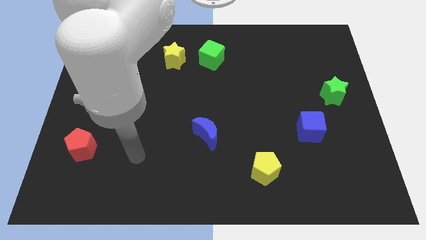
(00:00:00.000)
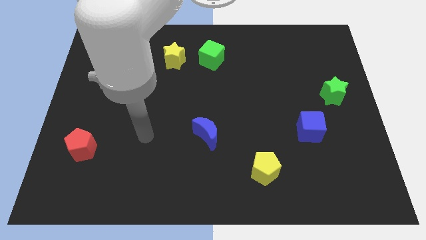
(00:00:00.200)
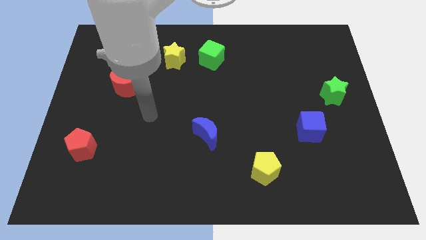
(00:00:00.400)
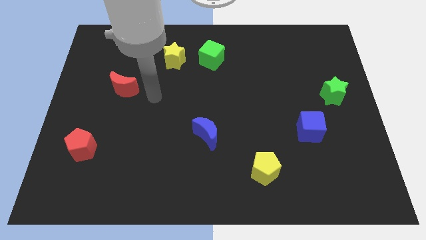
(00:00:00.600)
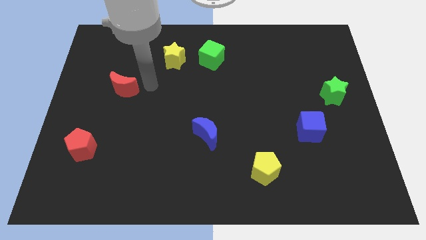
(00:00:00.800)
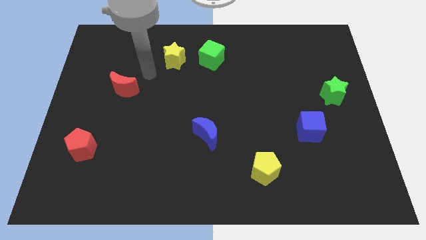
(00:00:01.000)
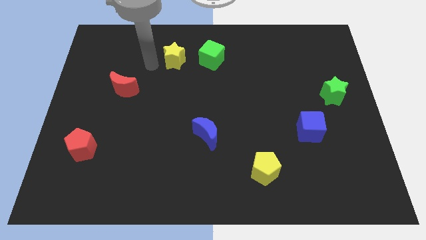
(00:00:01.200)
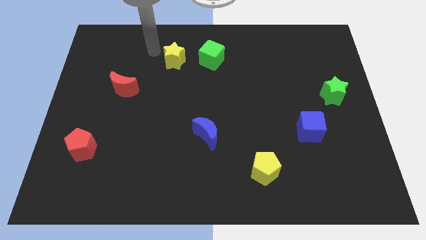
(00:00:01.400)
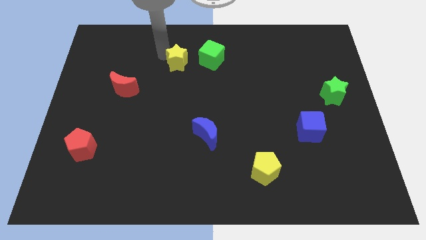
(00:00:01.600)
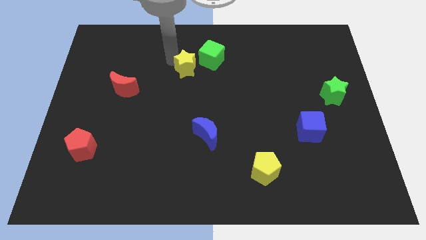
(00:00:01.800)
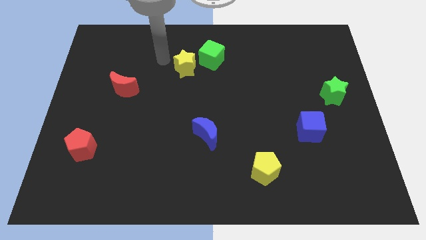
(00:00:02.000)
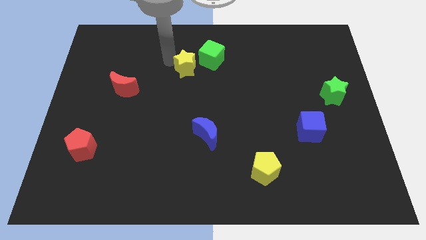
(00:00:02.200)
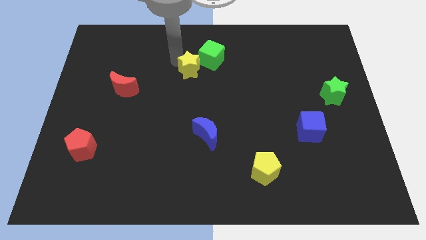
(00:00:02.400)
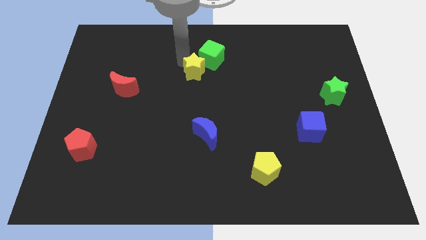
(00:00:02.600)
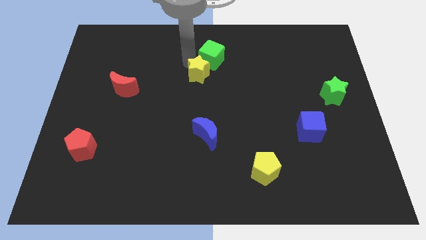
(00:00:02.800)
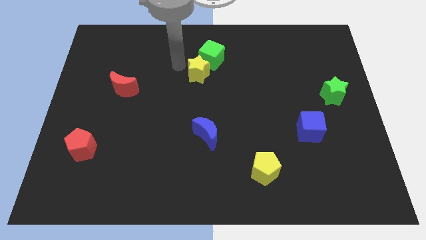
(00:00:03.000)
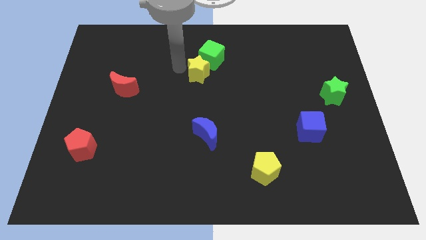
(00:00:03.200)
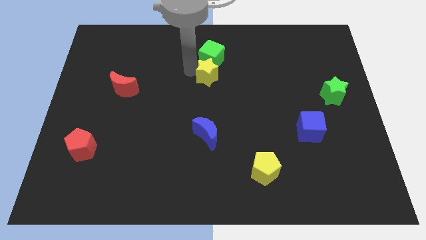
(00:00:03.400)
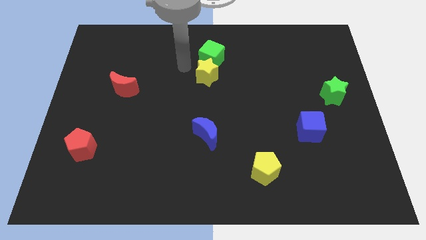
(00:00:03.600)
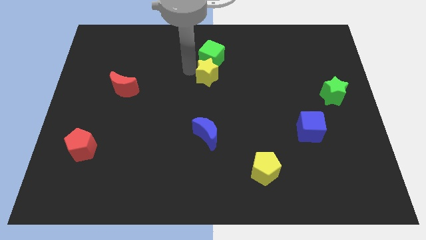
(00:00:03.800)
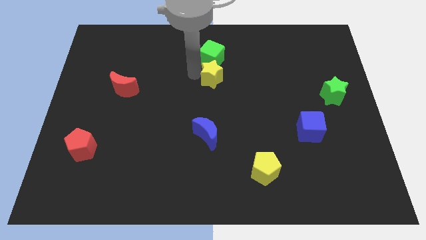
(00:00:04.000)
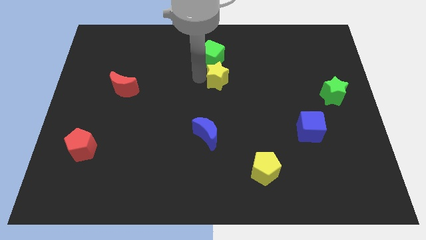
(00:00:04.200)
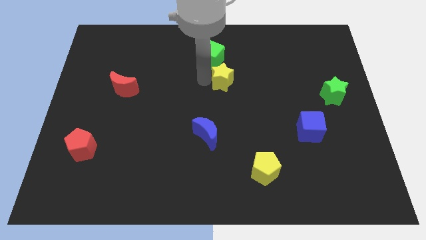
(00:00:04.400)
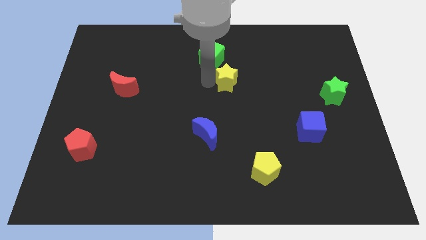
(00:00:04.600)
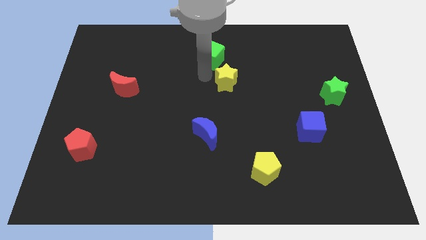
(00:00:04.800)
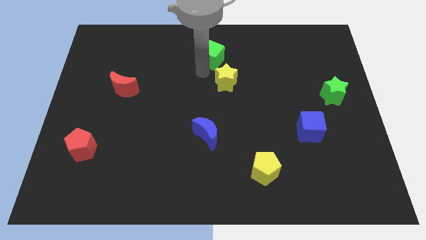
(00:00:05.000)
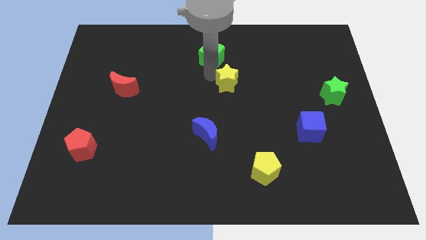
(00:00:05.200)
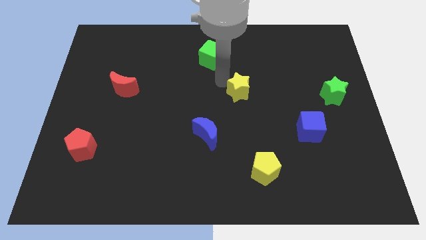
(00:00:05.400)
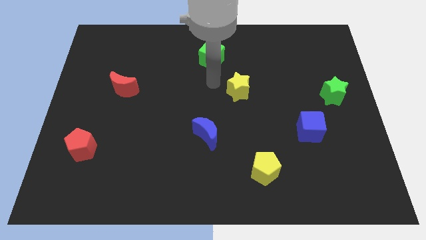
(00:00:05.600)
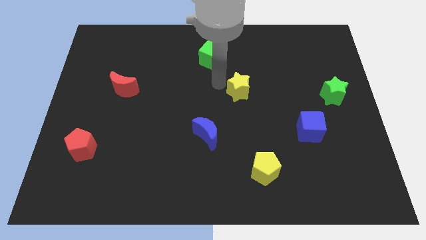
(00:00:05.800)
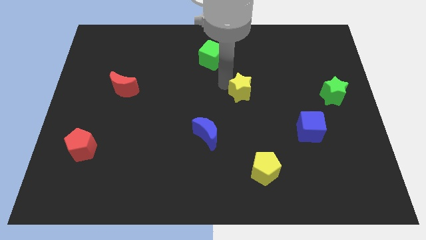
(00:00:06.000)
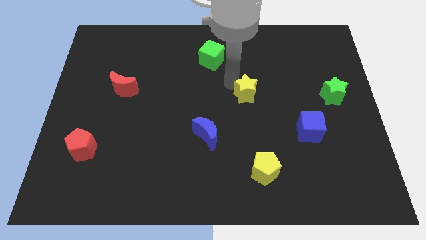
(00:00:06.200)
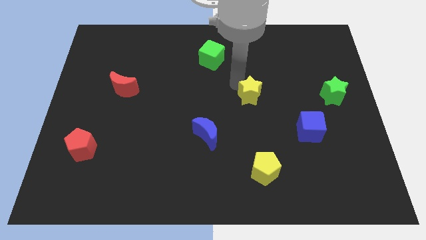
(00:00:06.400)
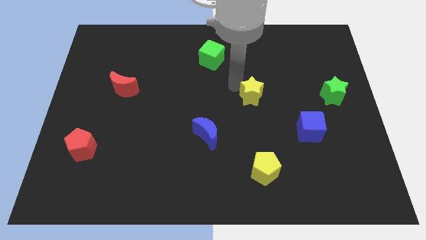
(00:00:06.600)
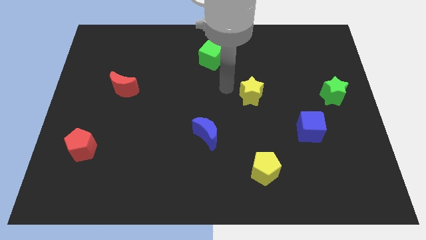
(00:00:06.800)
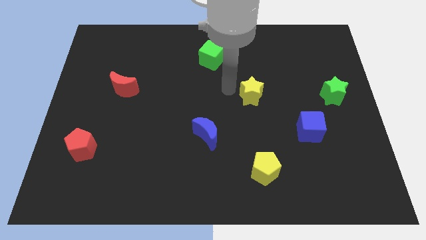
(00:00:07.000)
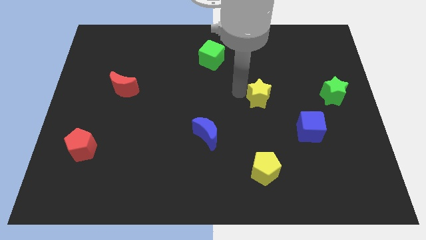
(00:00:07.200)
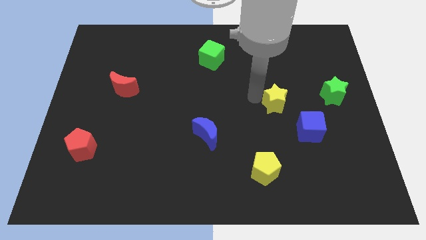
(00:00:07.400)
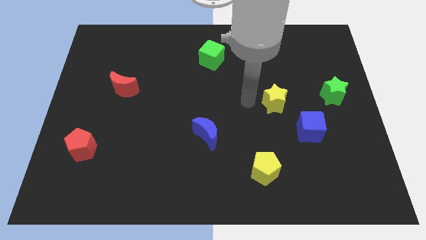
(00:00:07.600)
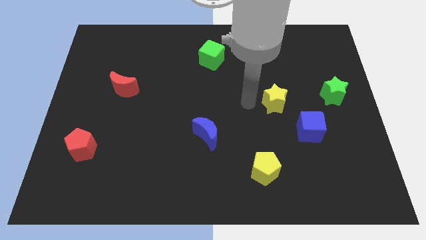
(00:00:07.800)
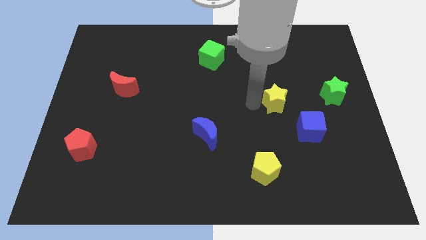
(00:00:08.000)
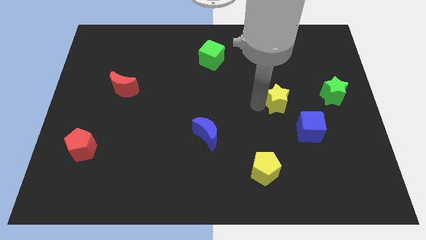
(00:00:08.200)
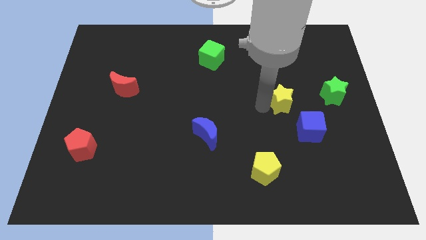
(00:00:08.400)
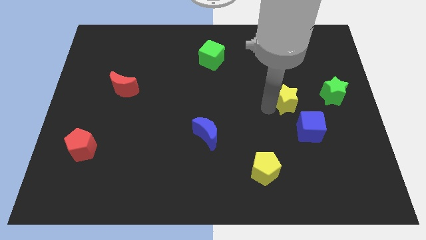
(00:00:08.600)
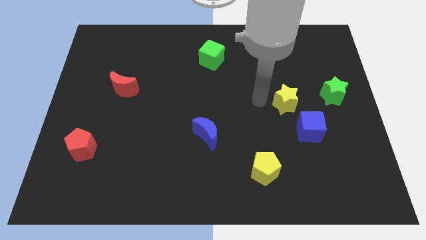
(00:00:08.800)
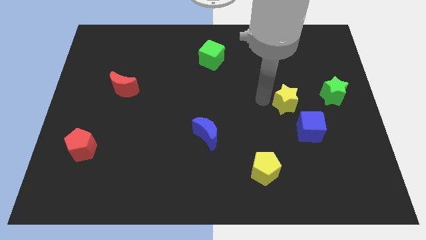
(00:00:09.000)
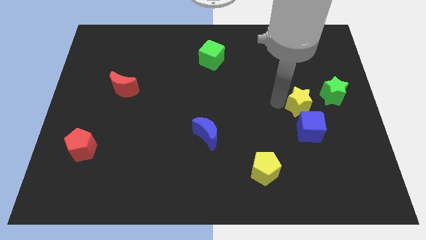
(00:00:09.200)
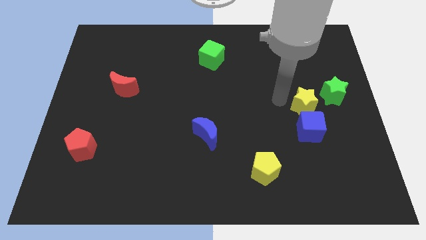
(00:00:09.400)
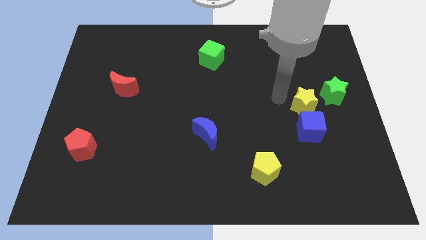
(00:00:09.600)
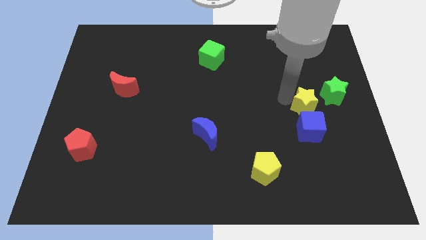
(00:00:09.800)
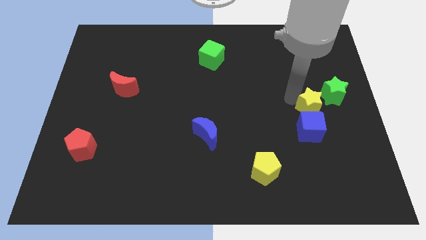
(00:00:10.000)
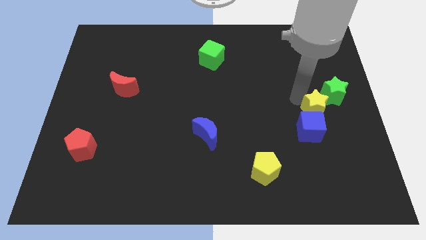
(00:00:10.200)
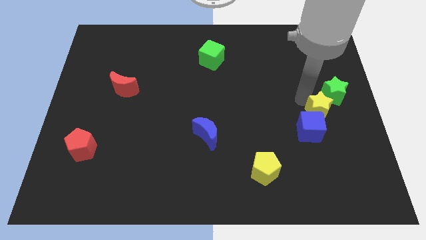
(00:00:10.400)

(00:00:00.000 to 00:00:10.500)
slide the yellow star to the bottom of the green star

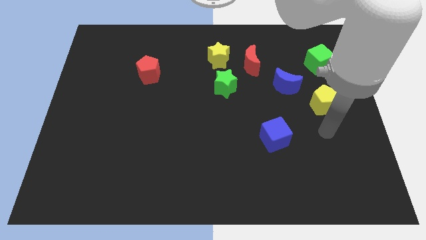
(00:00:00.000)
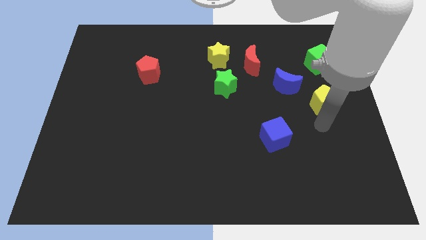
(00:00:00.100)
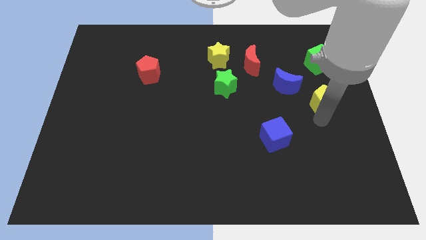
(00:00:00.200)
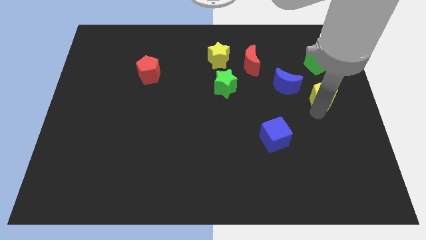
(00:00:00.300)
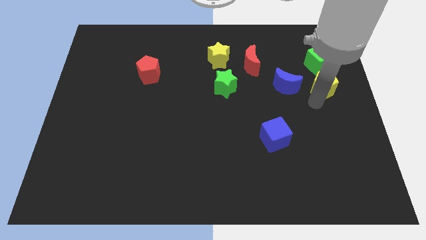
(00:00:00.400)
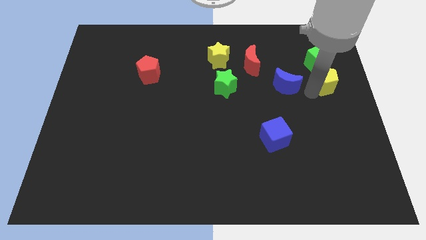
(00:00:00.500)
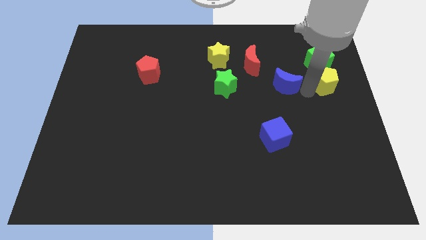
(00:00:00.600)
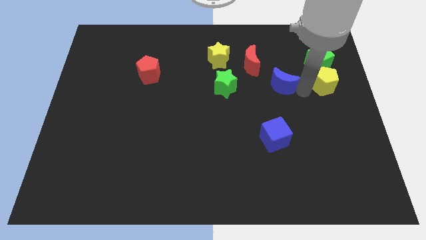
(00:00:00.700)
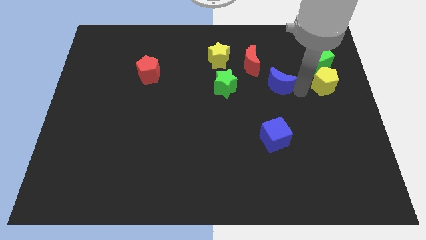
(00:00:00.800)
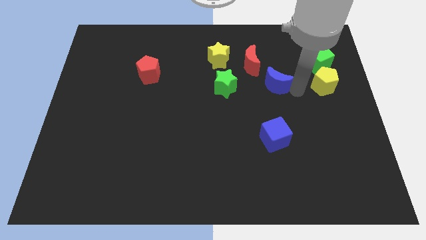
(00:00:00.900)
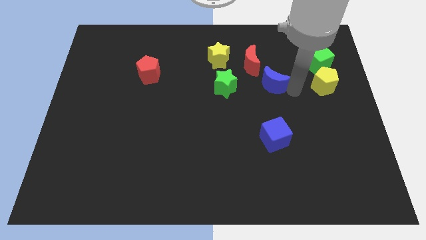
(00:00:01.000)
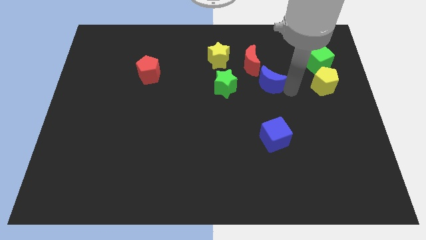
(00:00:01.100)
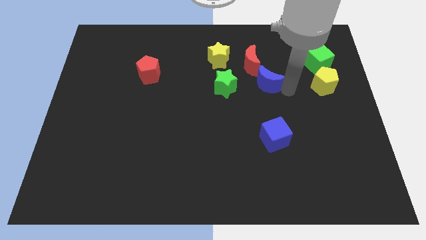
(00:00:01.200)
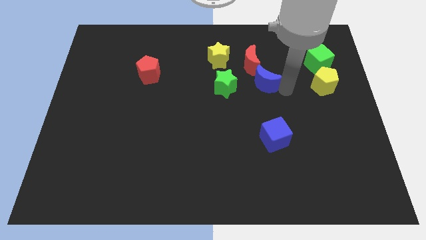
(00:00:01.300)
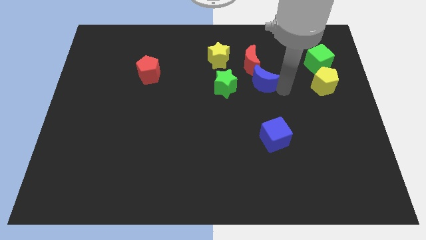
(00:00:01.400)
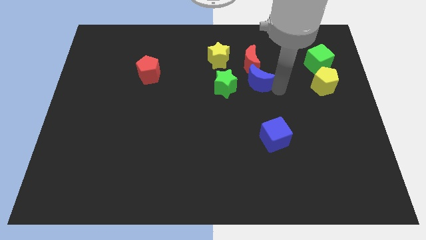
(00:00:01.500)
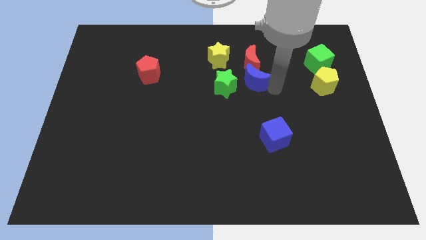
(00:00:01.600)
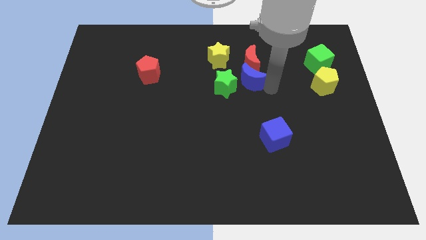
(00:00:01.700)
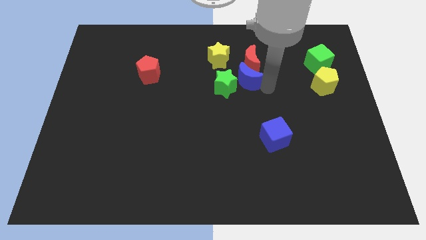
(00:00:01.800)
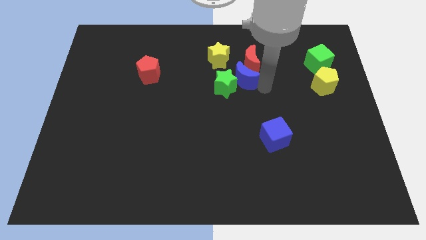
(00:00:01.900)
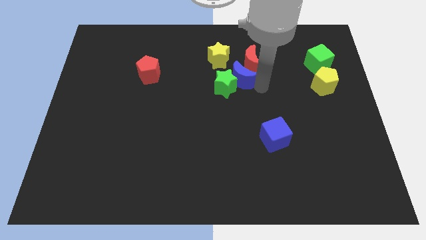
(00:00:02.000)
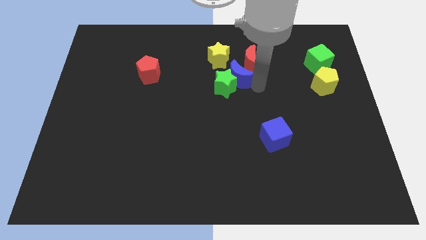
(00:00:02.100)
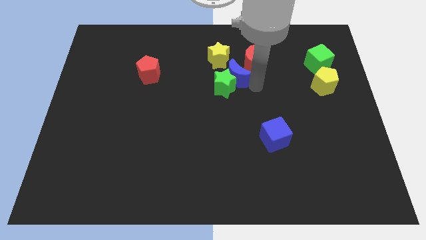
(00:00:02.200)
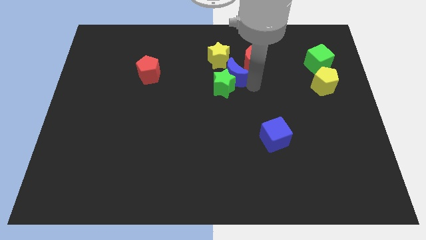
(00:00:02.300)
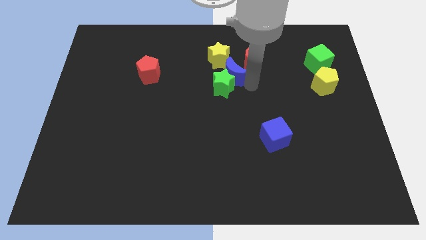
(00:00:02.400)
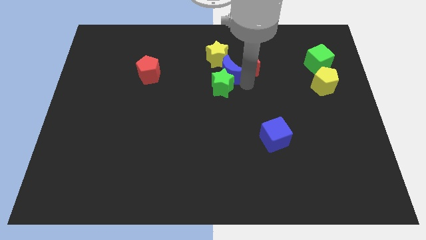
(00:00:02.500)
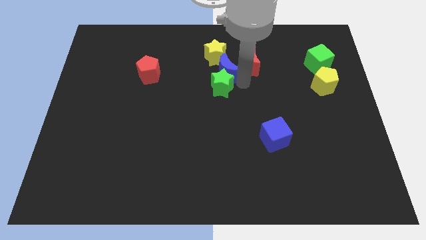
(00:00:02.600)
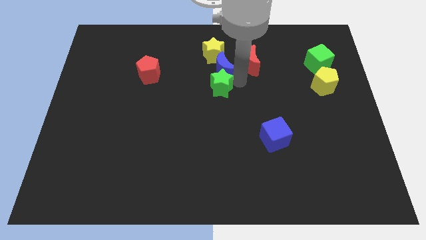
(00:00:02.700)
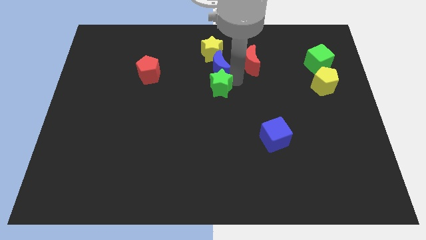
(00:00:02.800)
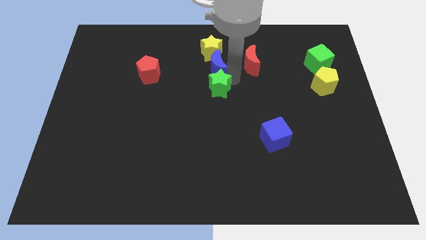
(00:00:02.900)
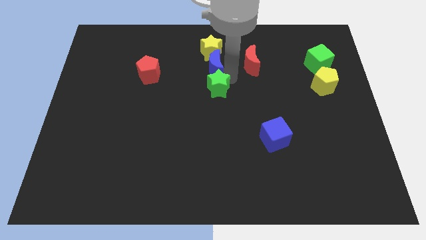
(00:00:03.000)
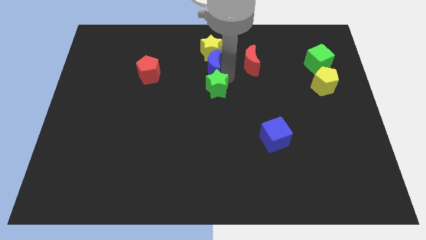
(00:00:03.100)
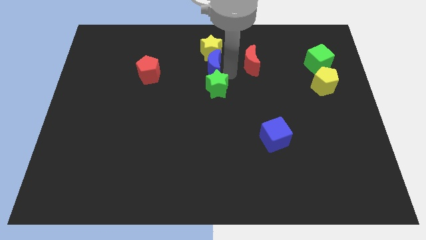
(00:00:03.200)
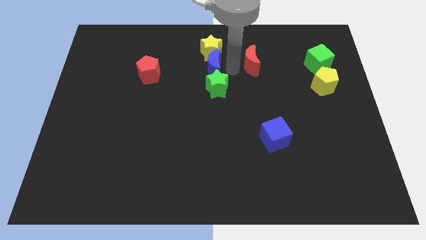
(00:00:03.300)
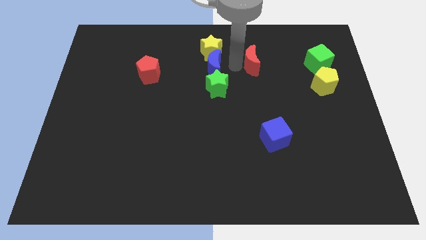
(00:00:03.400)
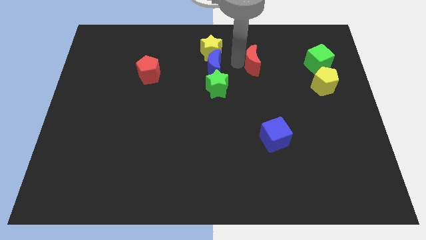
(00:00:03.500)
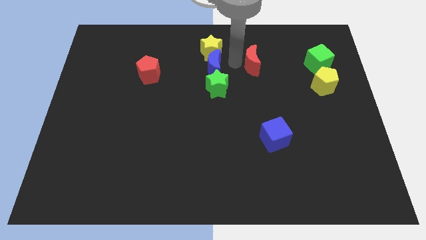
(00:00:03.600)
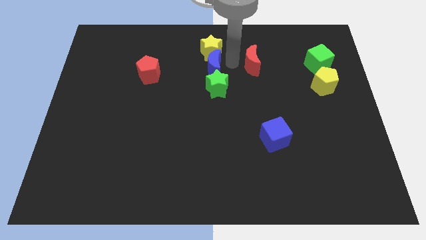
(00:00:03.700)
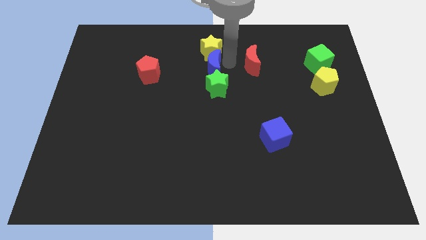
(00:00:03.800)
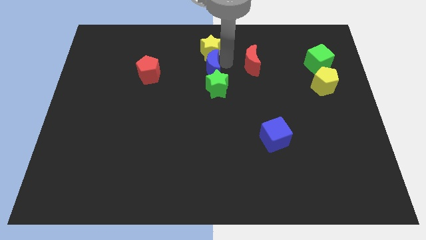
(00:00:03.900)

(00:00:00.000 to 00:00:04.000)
move the blue moon to the right of the red pentagon
